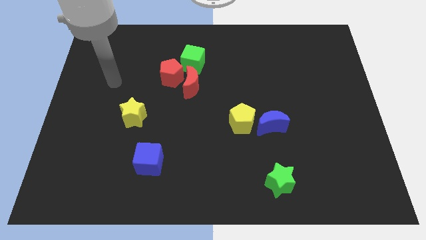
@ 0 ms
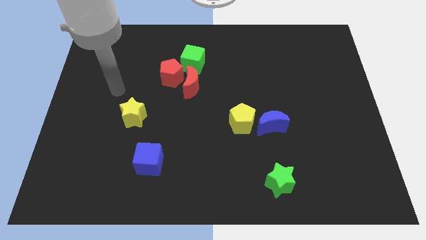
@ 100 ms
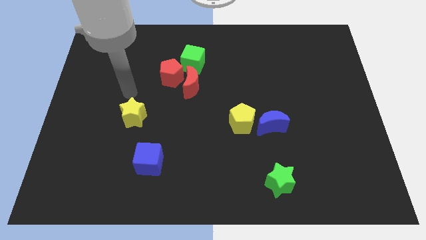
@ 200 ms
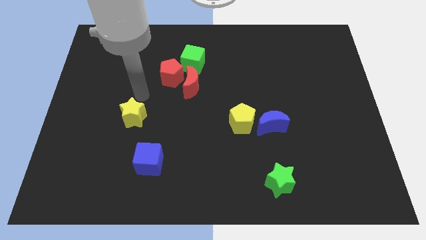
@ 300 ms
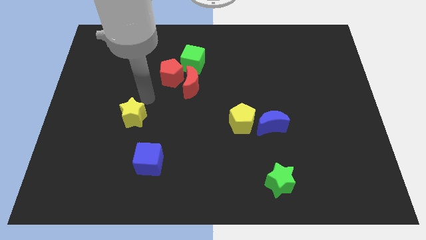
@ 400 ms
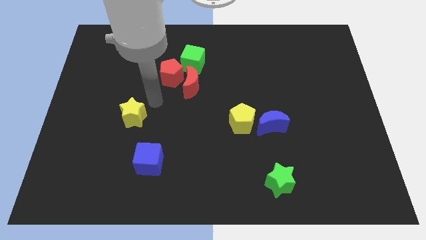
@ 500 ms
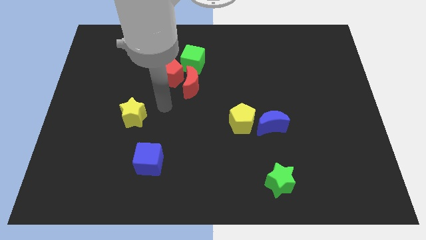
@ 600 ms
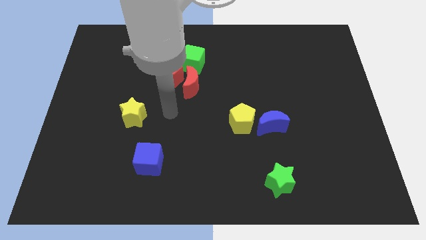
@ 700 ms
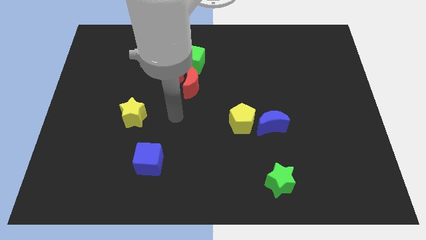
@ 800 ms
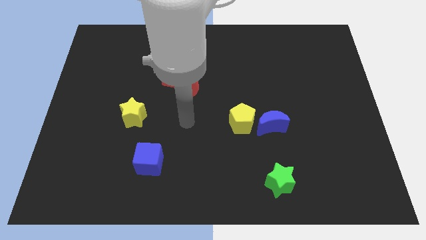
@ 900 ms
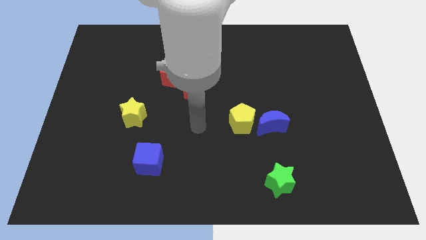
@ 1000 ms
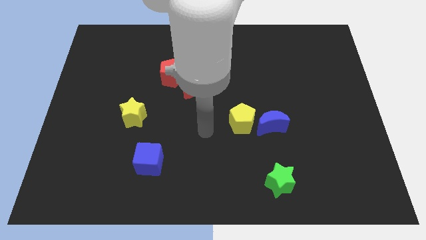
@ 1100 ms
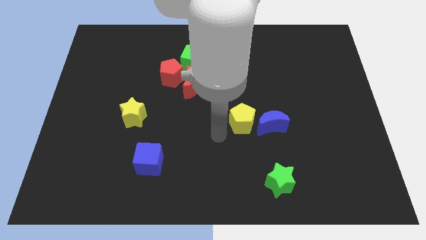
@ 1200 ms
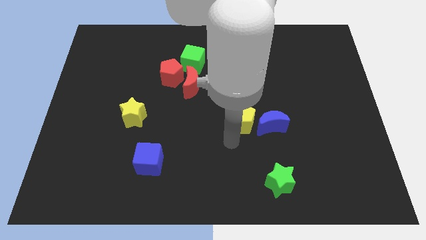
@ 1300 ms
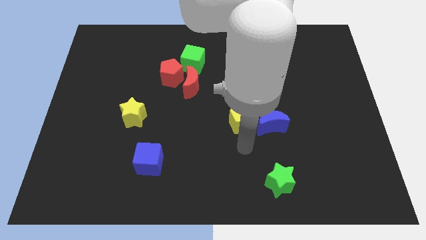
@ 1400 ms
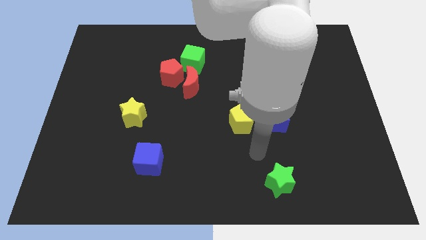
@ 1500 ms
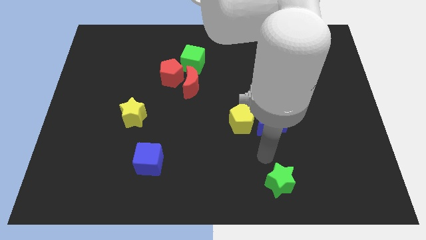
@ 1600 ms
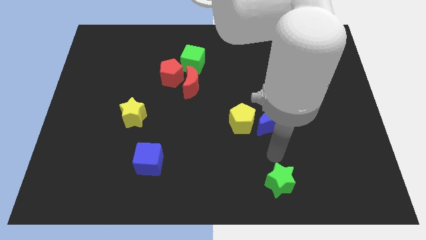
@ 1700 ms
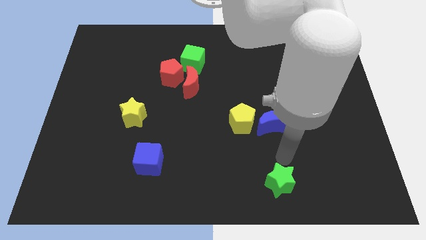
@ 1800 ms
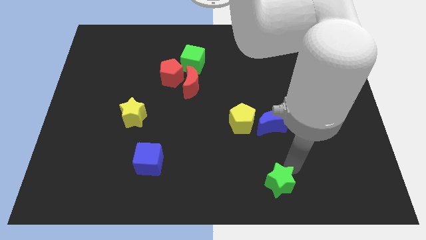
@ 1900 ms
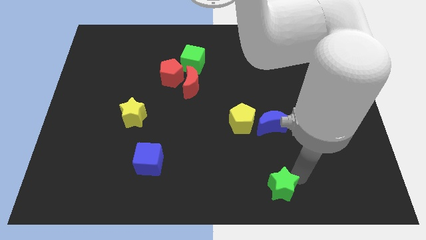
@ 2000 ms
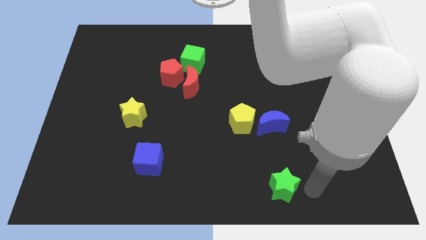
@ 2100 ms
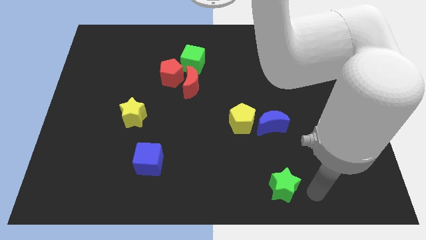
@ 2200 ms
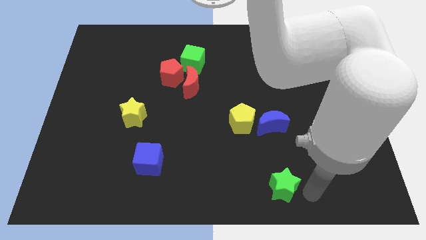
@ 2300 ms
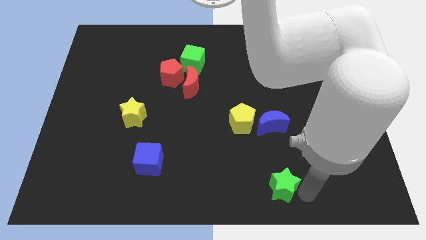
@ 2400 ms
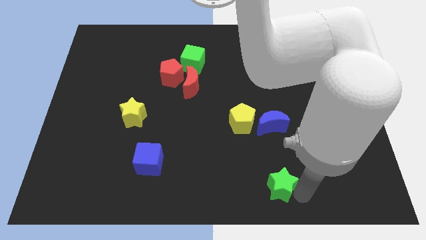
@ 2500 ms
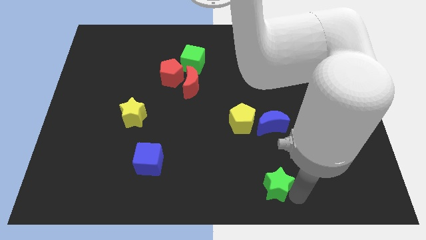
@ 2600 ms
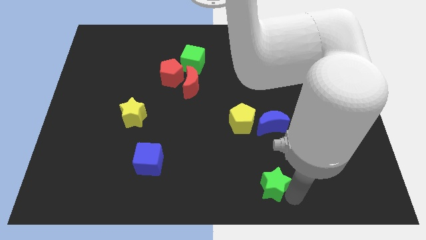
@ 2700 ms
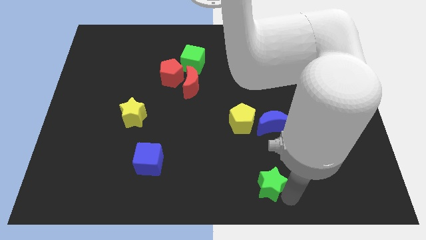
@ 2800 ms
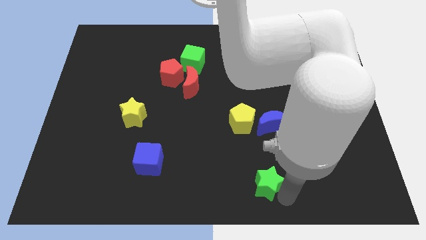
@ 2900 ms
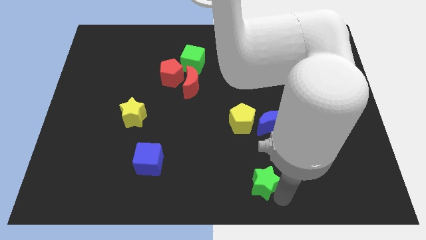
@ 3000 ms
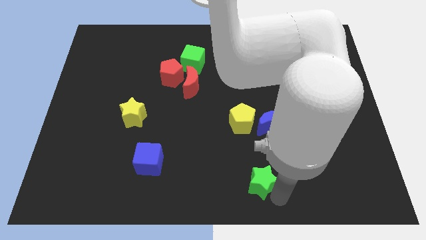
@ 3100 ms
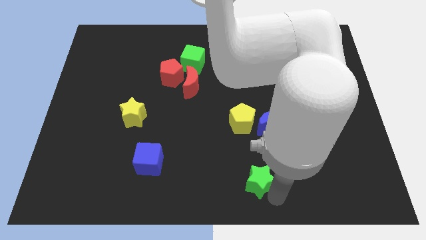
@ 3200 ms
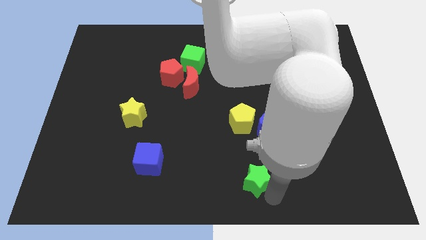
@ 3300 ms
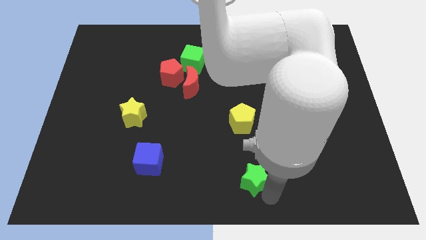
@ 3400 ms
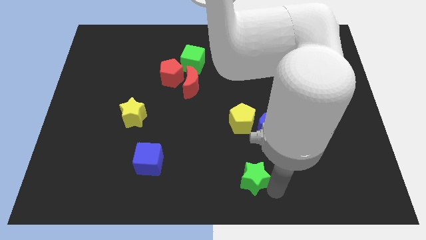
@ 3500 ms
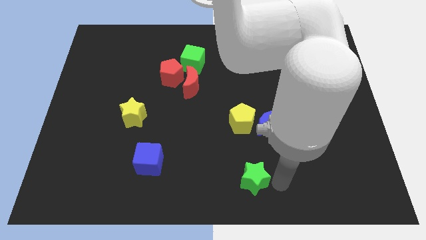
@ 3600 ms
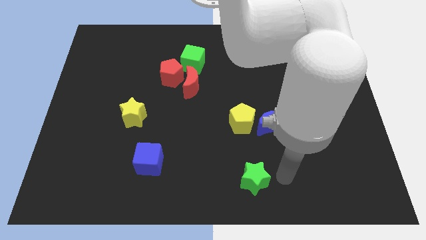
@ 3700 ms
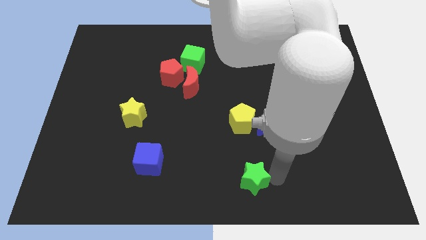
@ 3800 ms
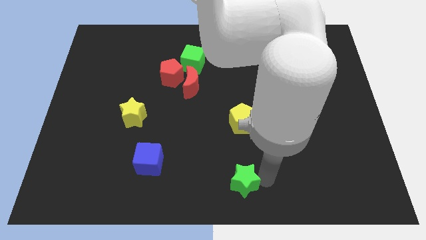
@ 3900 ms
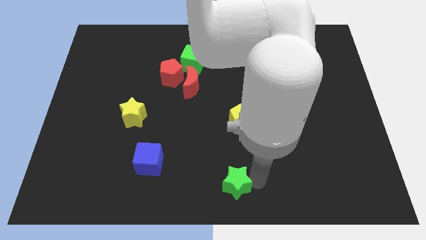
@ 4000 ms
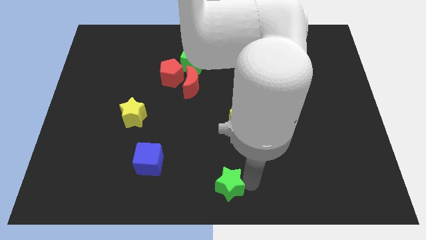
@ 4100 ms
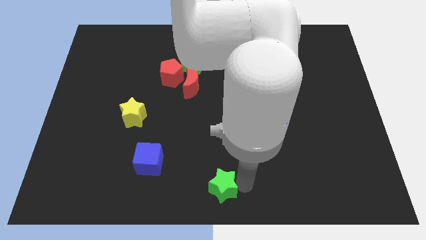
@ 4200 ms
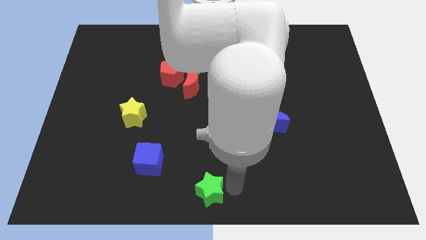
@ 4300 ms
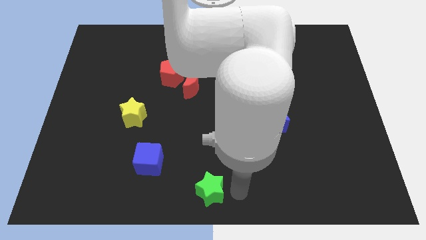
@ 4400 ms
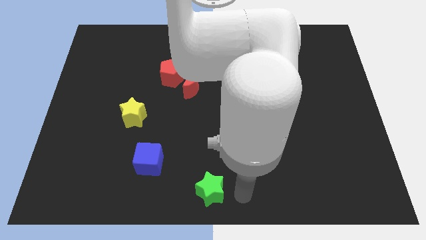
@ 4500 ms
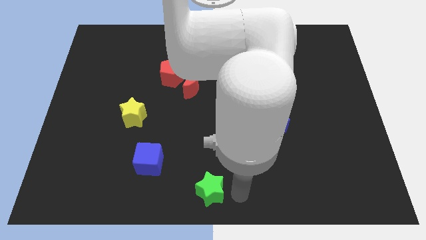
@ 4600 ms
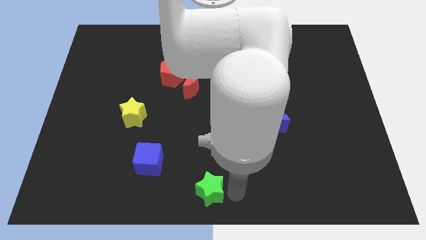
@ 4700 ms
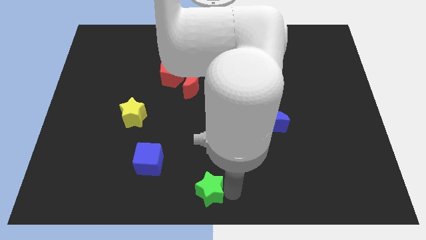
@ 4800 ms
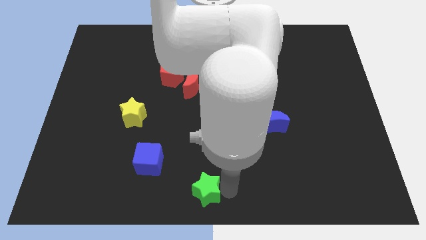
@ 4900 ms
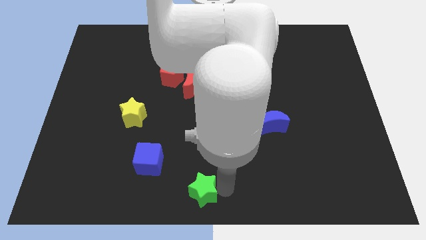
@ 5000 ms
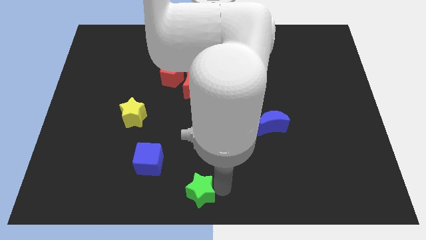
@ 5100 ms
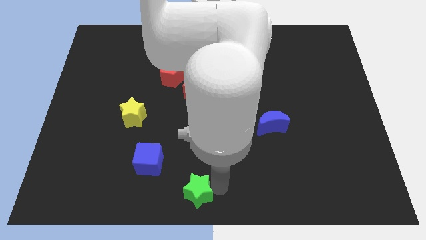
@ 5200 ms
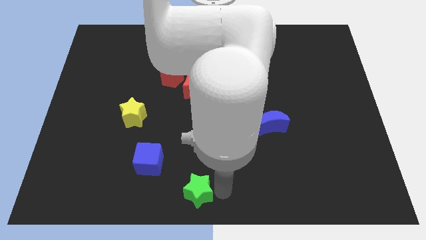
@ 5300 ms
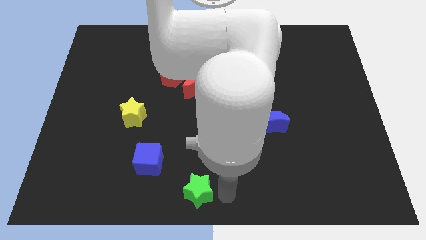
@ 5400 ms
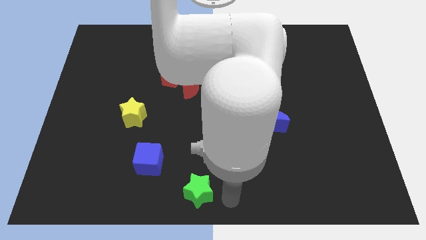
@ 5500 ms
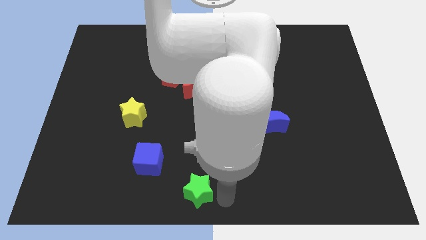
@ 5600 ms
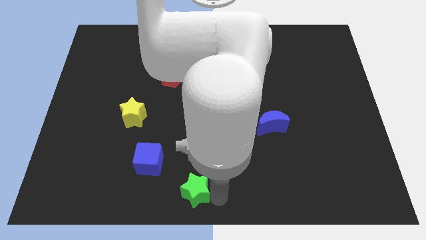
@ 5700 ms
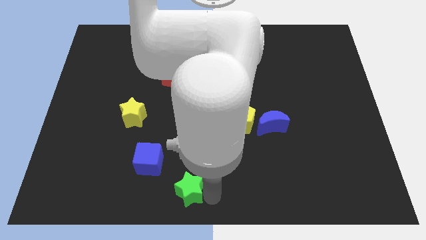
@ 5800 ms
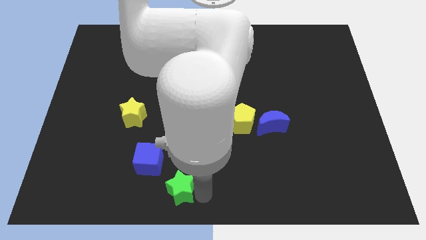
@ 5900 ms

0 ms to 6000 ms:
move the green star to the left

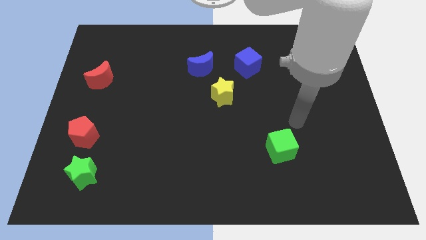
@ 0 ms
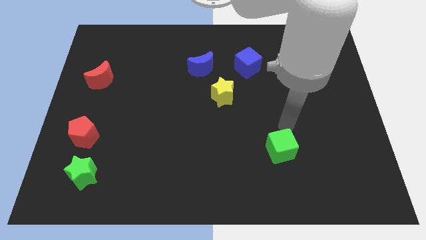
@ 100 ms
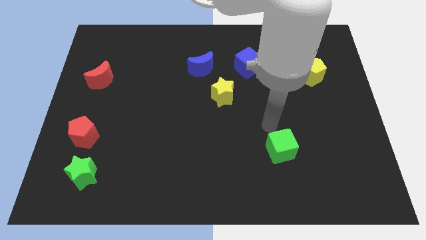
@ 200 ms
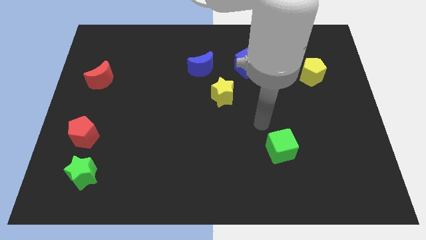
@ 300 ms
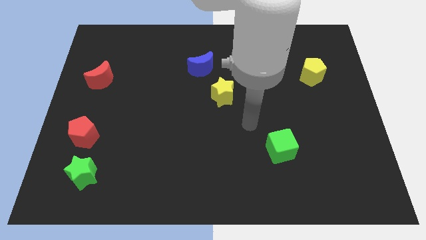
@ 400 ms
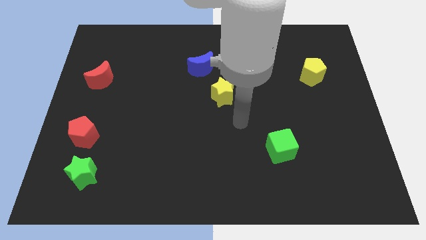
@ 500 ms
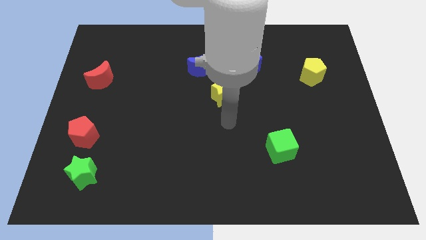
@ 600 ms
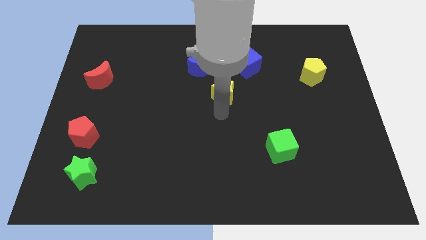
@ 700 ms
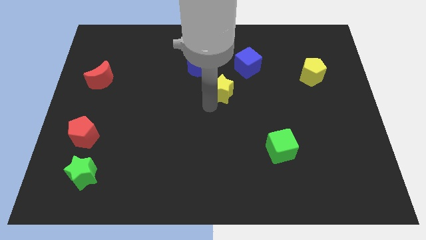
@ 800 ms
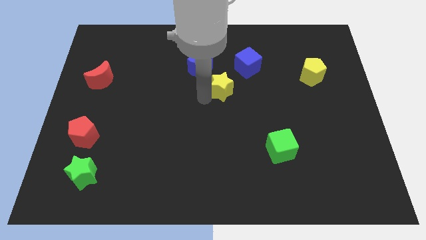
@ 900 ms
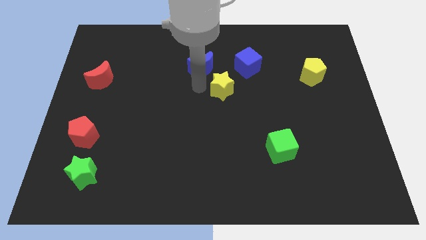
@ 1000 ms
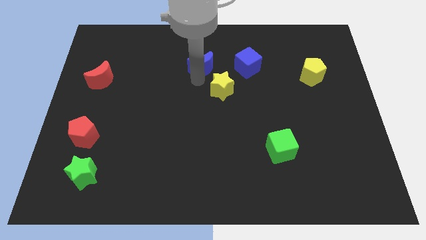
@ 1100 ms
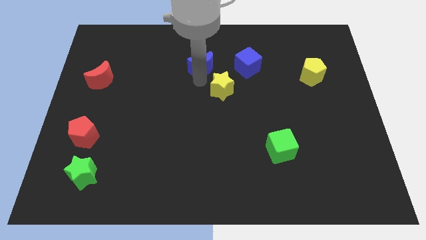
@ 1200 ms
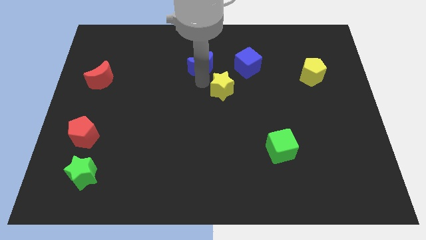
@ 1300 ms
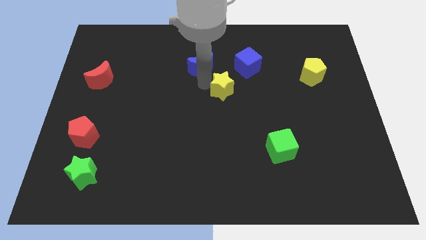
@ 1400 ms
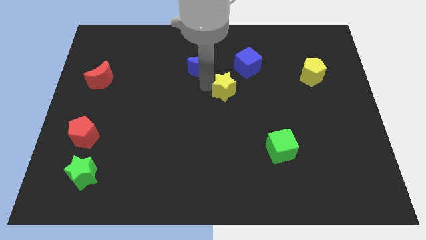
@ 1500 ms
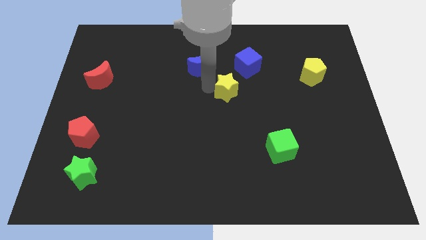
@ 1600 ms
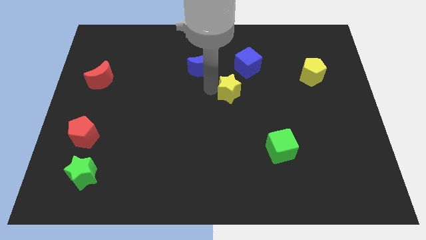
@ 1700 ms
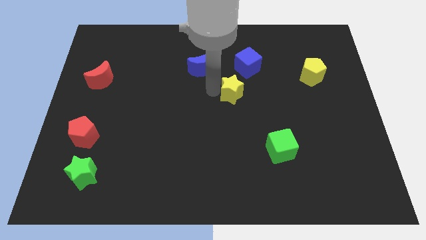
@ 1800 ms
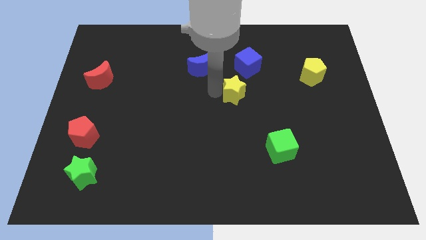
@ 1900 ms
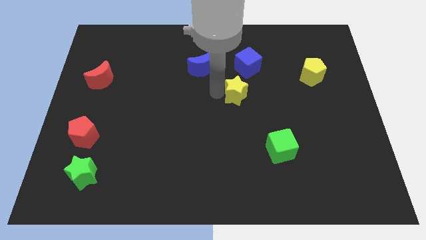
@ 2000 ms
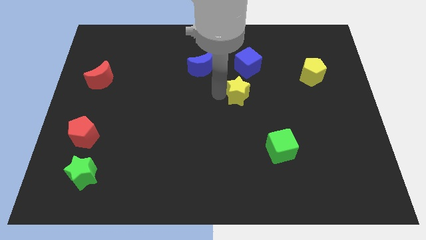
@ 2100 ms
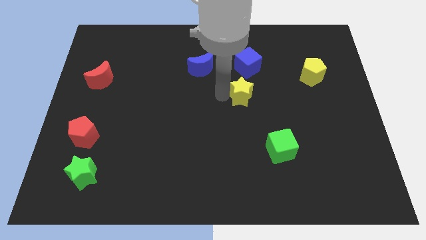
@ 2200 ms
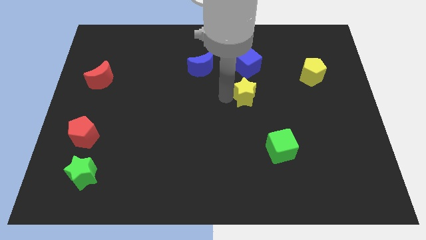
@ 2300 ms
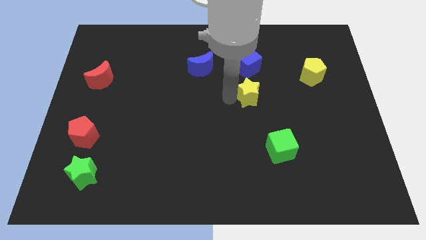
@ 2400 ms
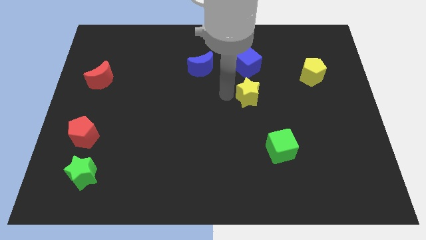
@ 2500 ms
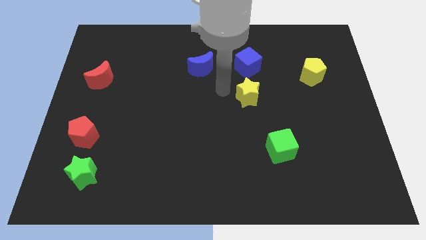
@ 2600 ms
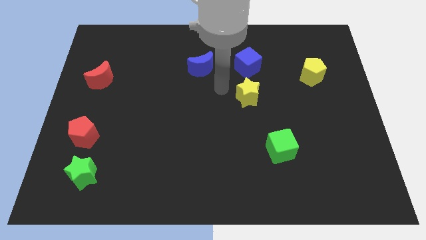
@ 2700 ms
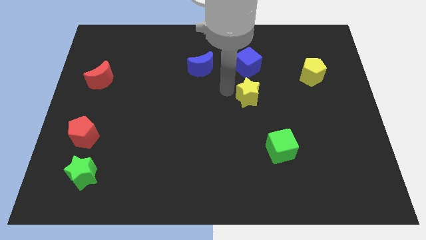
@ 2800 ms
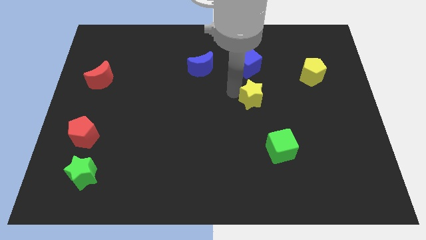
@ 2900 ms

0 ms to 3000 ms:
slightly slide the yellow star right
